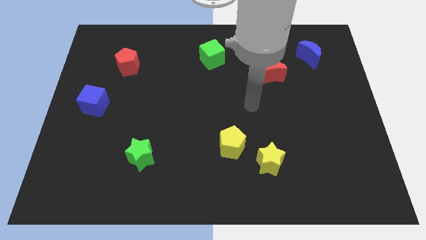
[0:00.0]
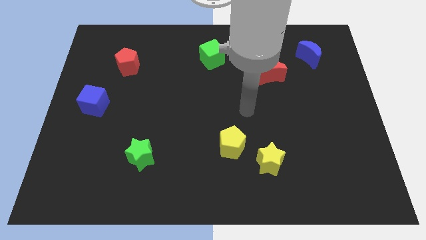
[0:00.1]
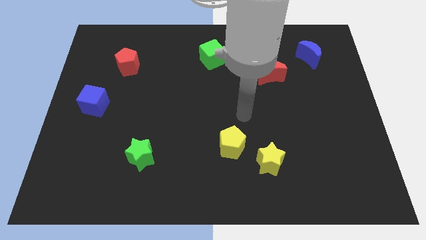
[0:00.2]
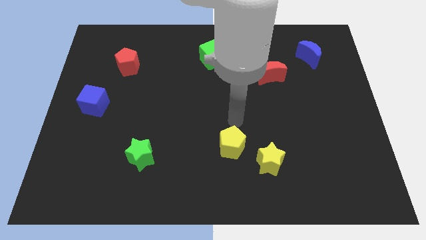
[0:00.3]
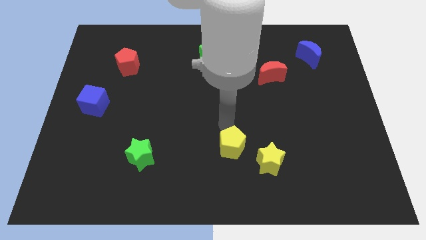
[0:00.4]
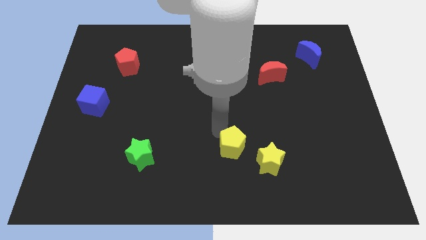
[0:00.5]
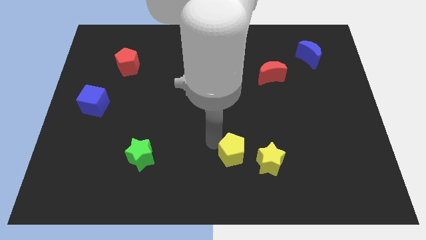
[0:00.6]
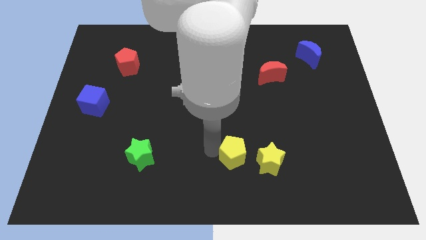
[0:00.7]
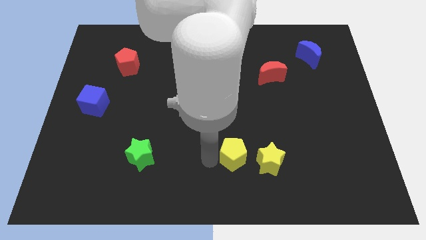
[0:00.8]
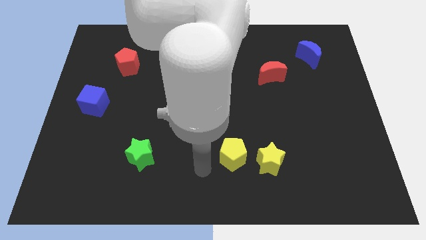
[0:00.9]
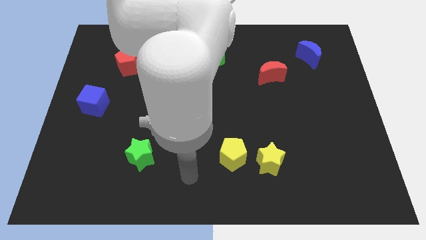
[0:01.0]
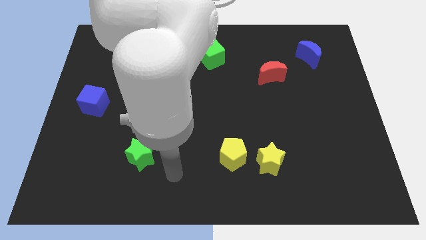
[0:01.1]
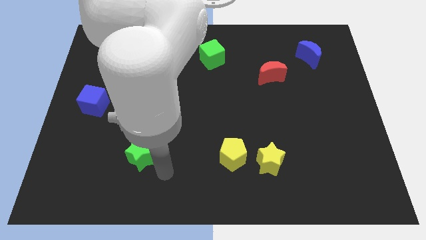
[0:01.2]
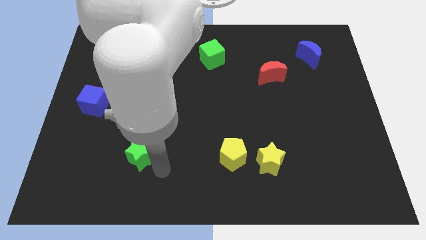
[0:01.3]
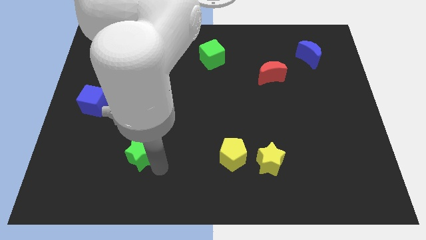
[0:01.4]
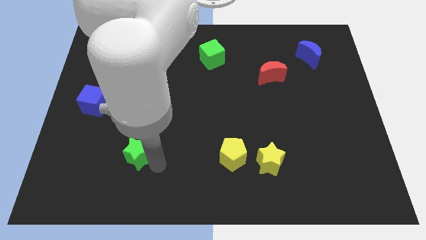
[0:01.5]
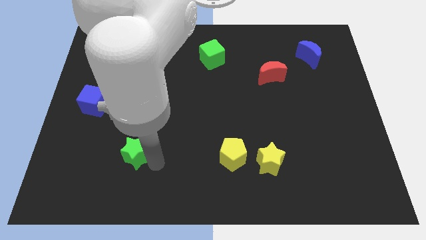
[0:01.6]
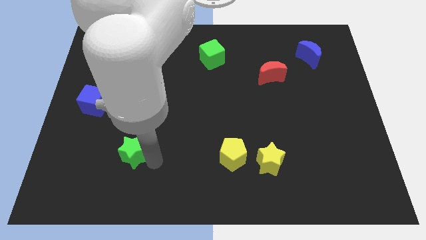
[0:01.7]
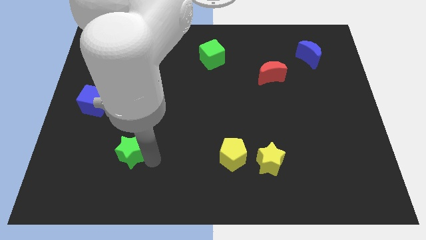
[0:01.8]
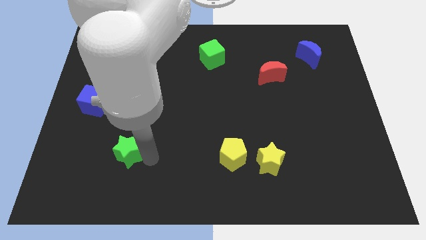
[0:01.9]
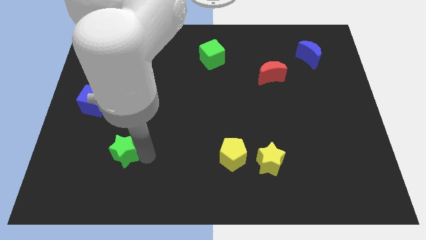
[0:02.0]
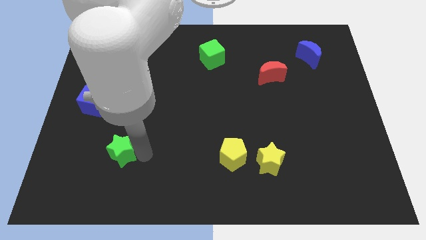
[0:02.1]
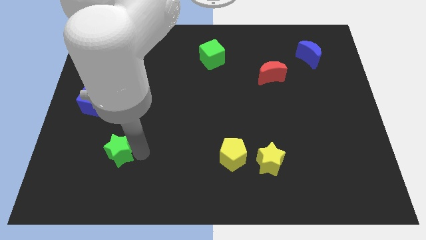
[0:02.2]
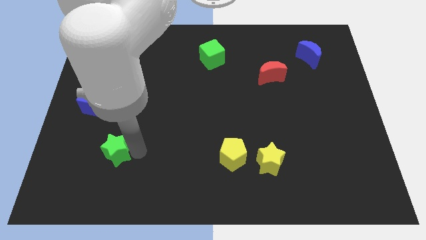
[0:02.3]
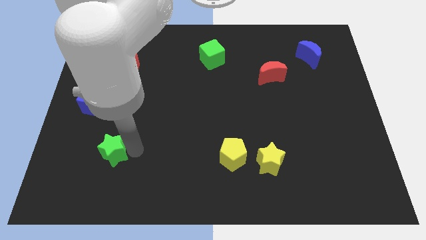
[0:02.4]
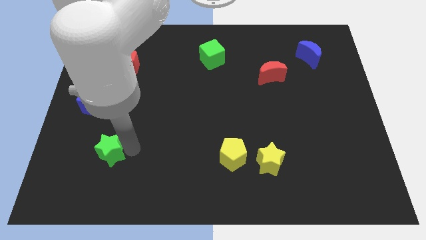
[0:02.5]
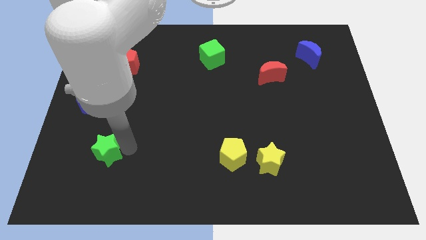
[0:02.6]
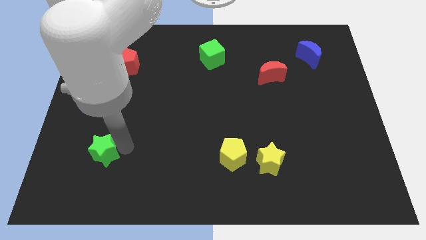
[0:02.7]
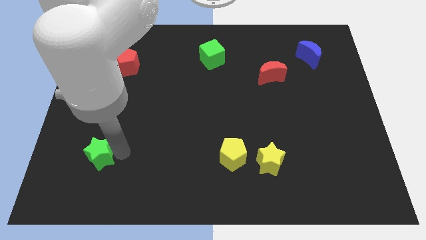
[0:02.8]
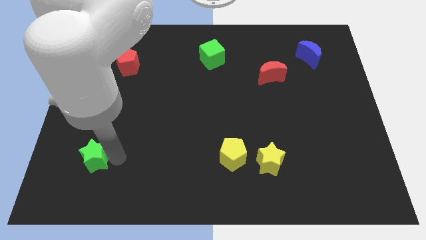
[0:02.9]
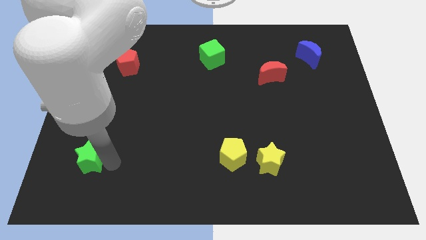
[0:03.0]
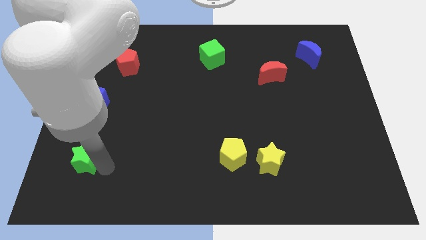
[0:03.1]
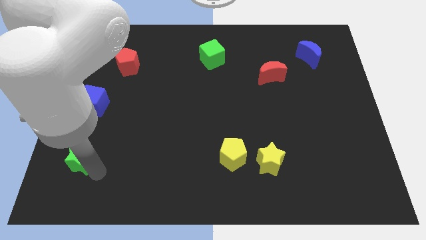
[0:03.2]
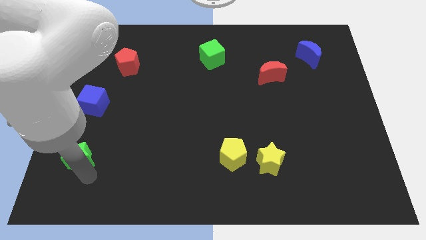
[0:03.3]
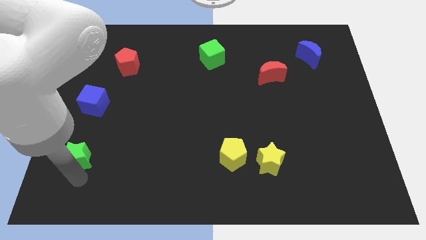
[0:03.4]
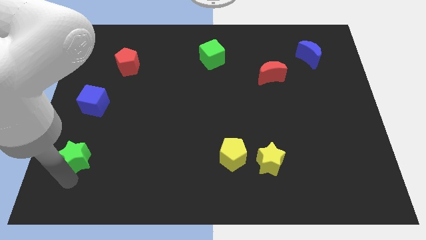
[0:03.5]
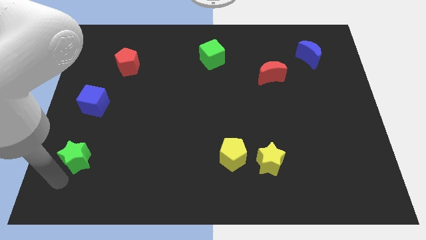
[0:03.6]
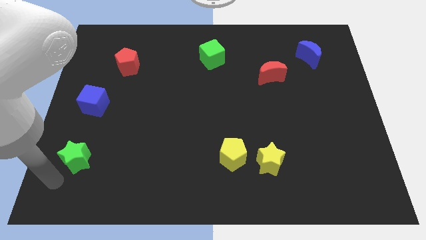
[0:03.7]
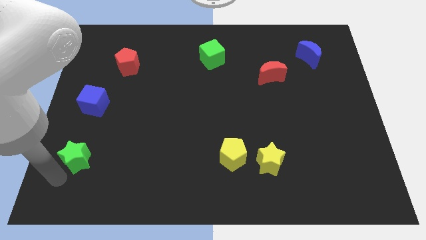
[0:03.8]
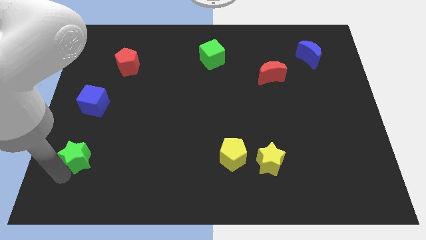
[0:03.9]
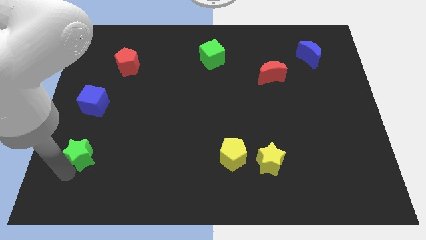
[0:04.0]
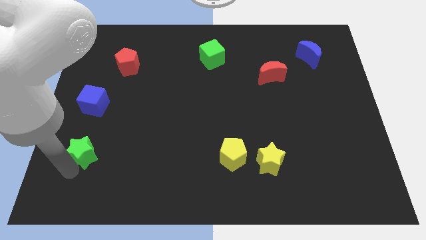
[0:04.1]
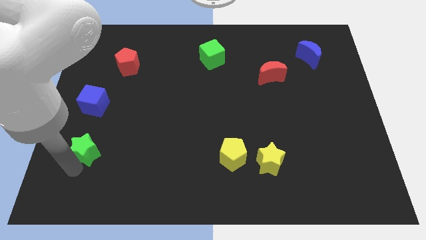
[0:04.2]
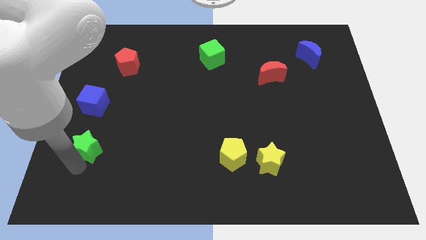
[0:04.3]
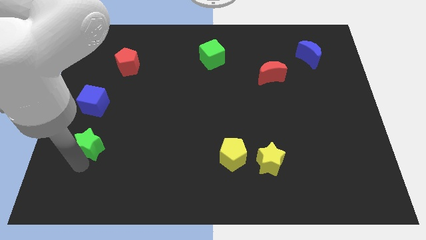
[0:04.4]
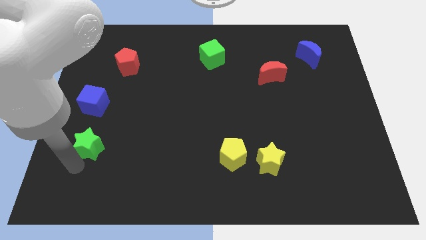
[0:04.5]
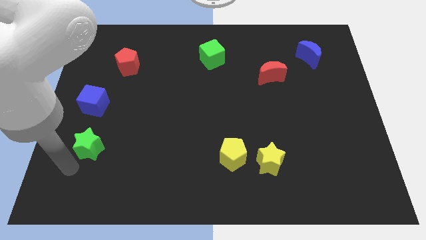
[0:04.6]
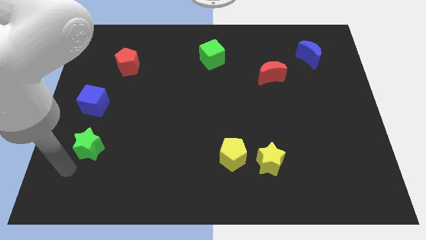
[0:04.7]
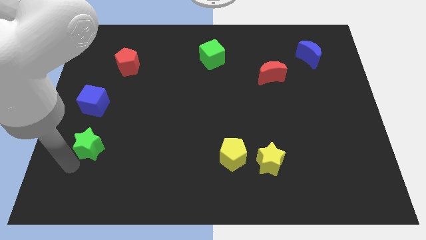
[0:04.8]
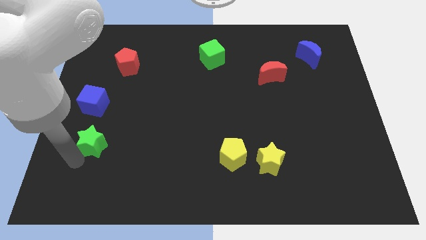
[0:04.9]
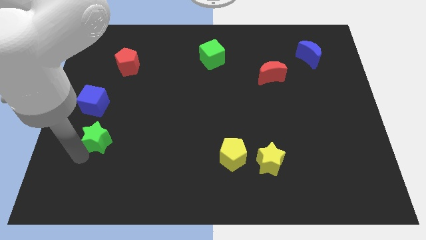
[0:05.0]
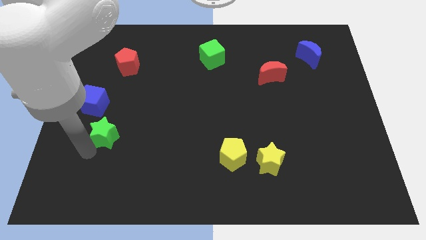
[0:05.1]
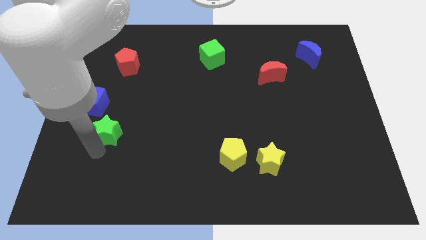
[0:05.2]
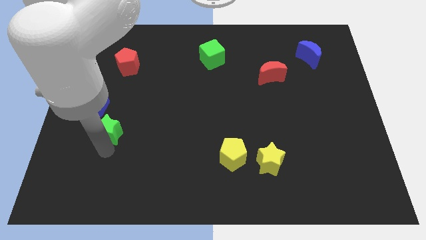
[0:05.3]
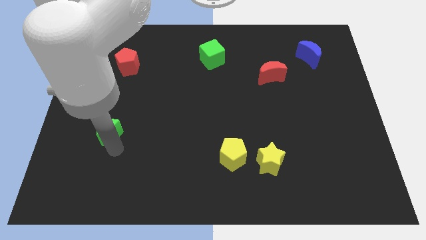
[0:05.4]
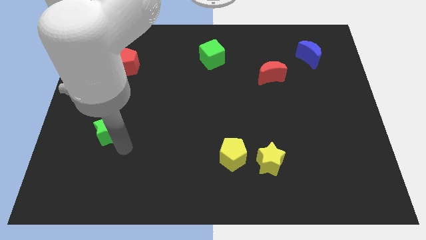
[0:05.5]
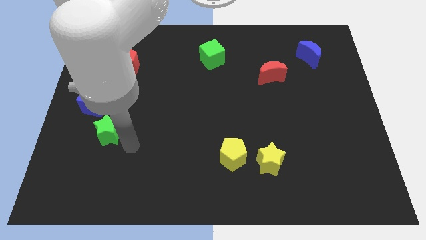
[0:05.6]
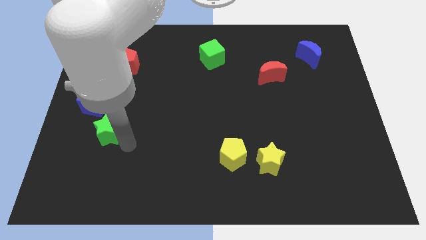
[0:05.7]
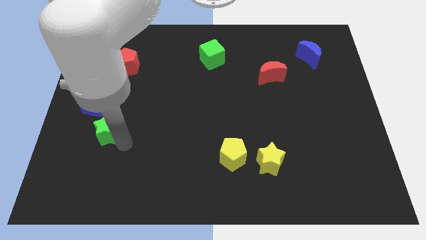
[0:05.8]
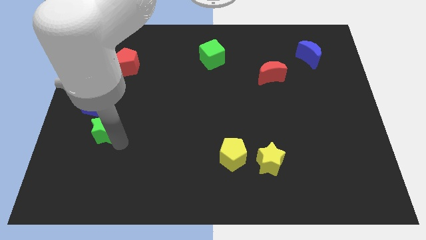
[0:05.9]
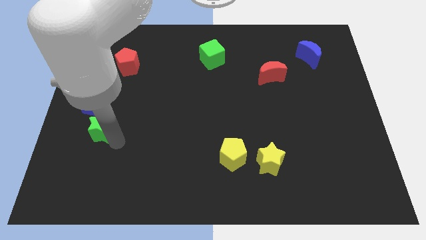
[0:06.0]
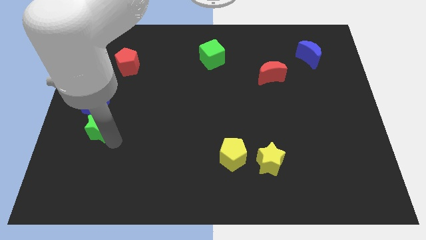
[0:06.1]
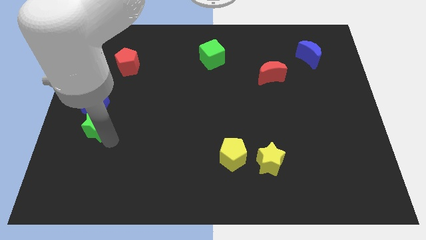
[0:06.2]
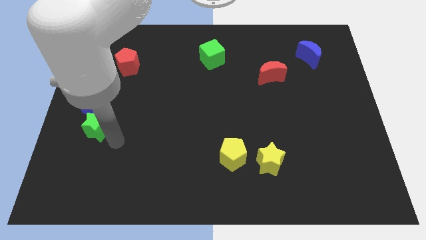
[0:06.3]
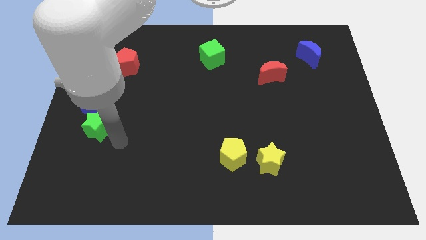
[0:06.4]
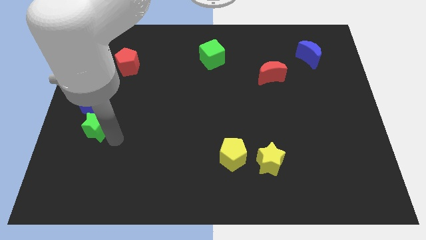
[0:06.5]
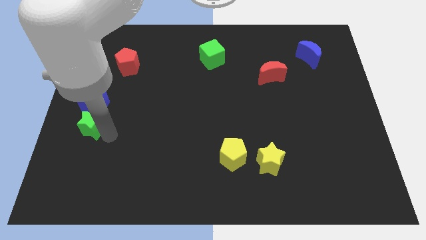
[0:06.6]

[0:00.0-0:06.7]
move the green star to the left side of the board

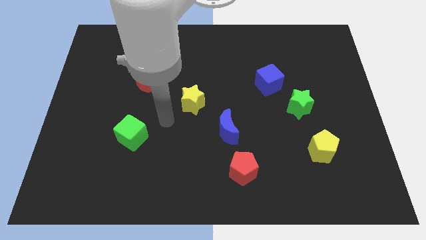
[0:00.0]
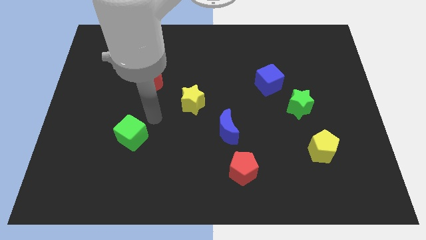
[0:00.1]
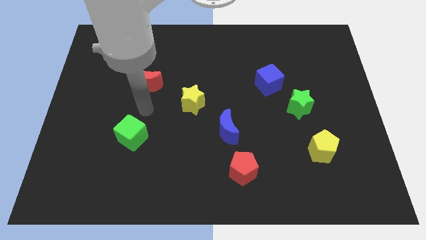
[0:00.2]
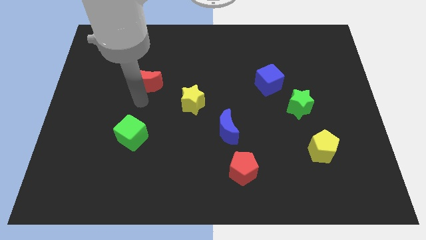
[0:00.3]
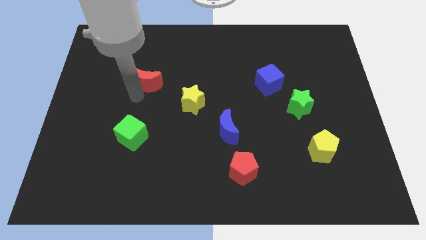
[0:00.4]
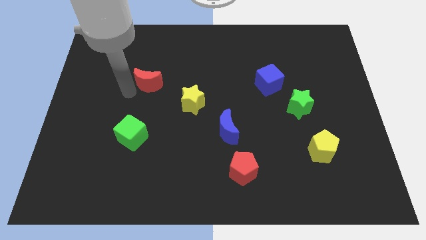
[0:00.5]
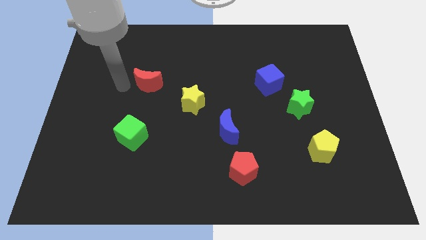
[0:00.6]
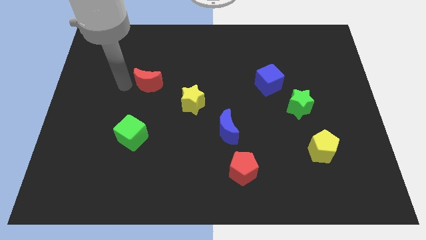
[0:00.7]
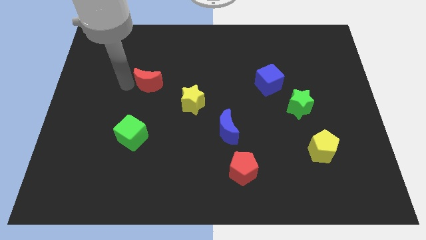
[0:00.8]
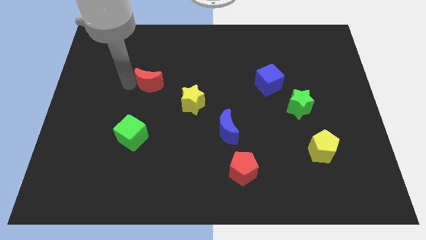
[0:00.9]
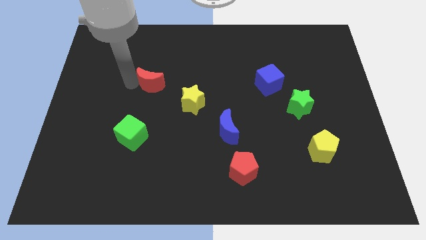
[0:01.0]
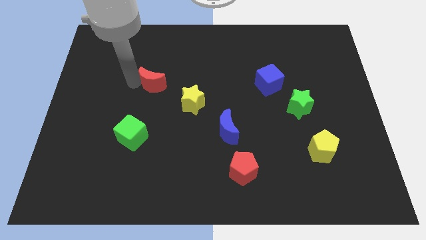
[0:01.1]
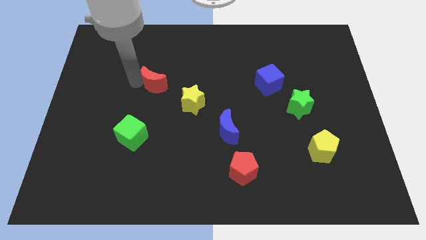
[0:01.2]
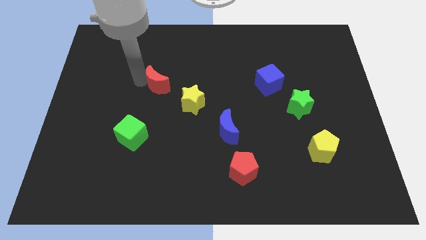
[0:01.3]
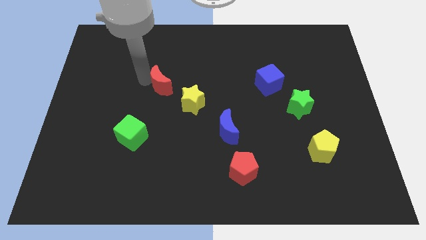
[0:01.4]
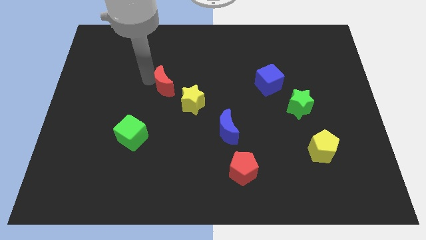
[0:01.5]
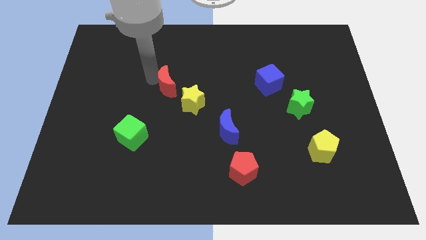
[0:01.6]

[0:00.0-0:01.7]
slide the red moon to the center of the board
